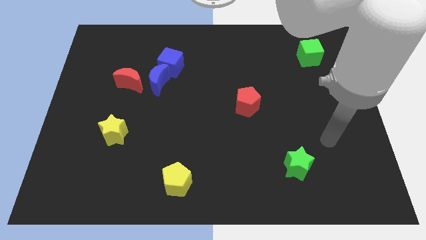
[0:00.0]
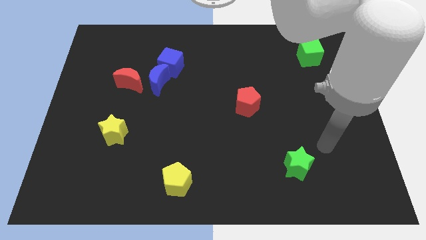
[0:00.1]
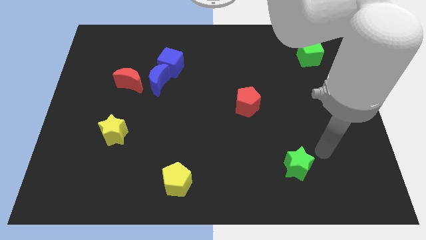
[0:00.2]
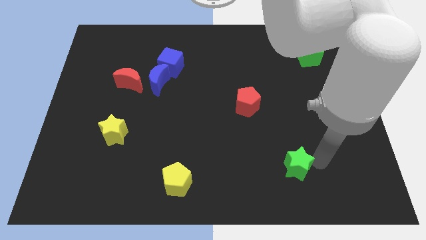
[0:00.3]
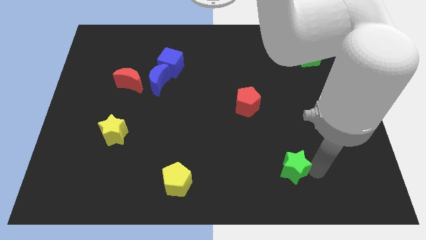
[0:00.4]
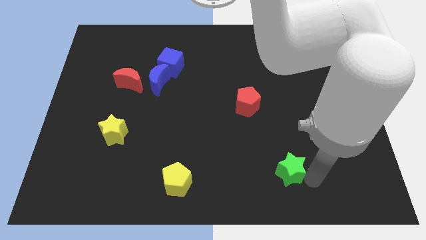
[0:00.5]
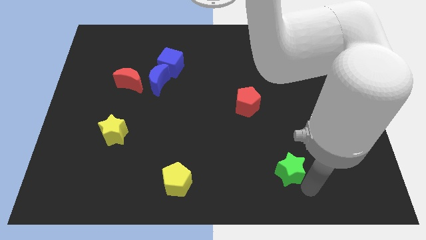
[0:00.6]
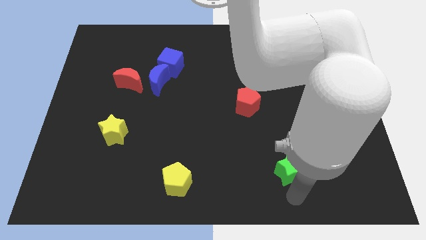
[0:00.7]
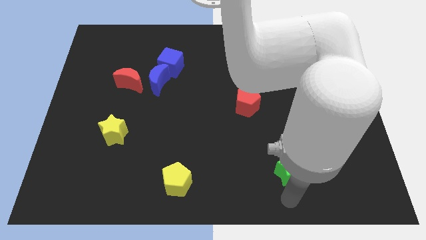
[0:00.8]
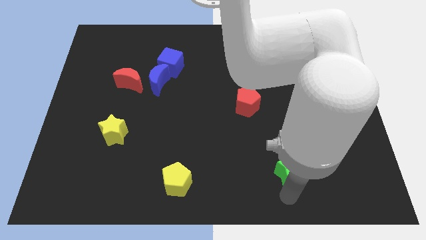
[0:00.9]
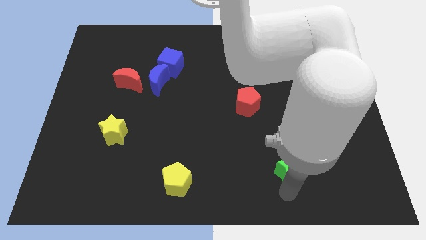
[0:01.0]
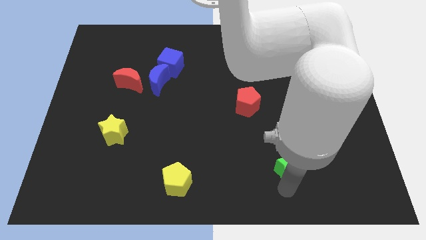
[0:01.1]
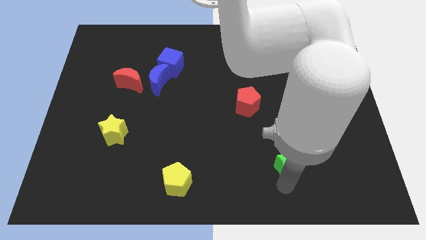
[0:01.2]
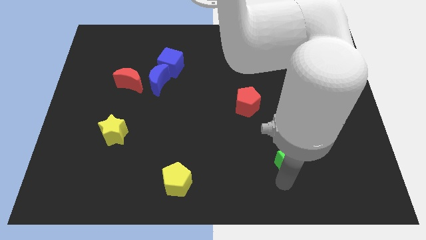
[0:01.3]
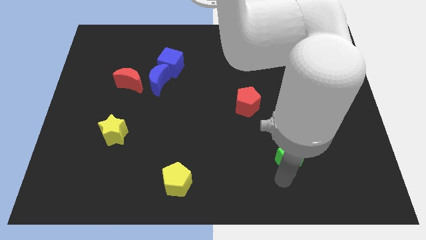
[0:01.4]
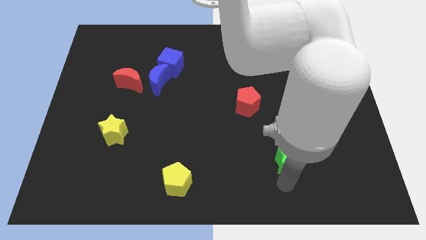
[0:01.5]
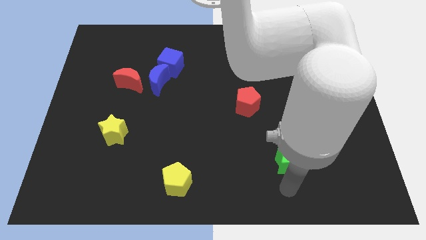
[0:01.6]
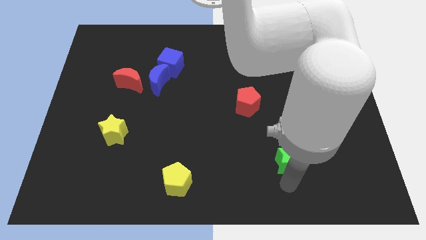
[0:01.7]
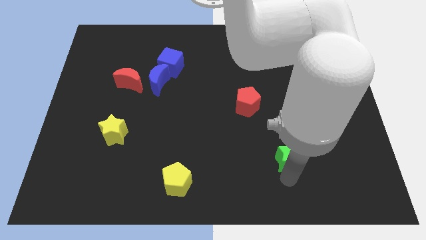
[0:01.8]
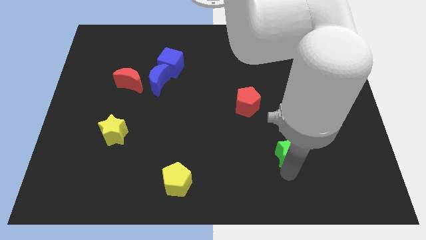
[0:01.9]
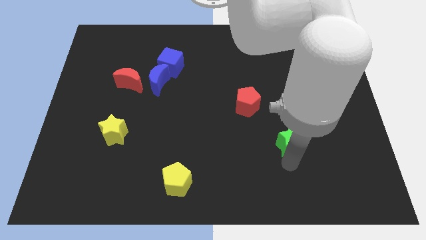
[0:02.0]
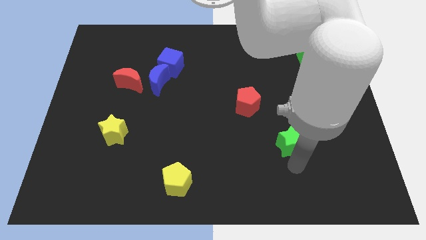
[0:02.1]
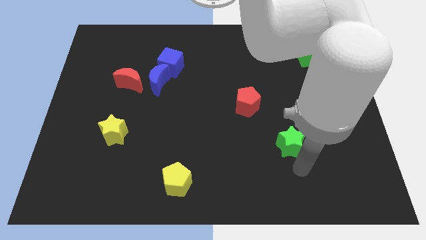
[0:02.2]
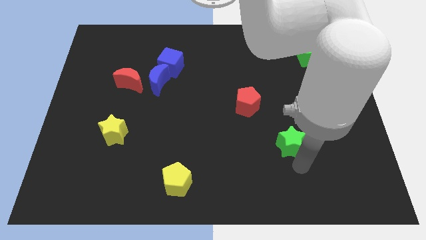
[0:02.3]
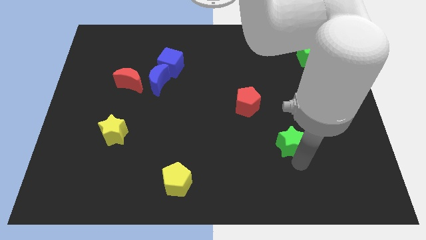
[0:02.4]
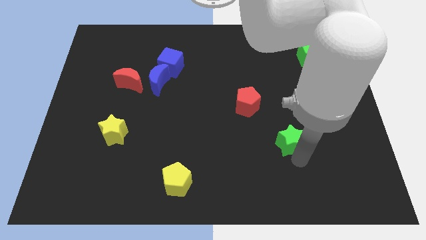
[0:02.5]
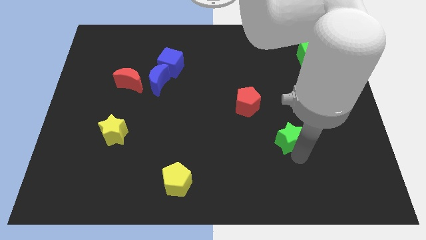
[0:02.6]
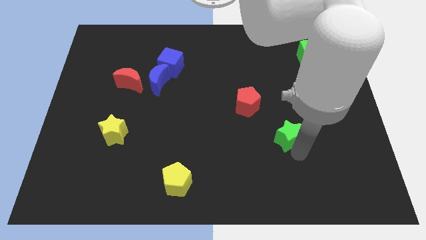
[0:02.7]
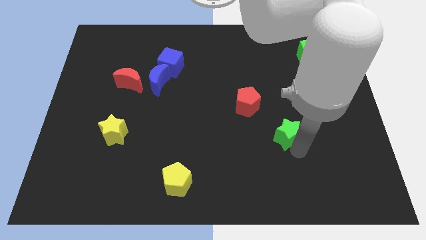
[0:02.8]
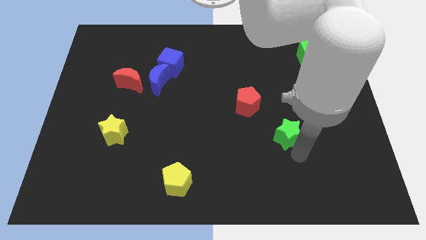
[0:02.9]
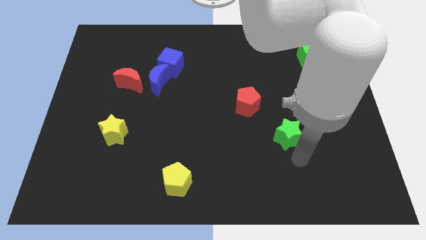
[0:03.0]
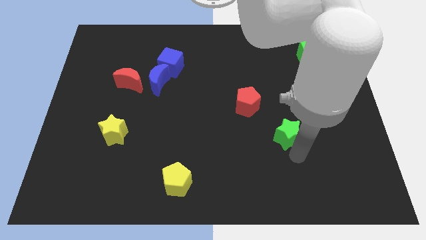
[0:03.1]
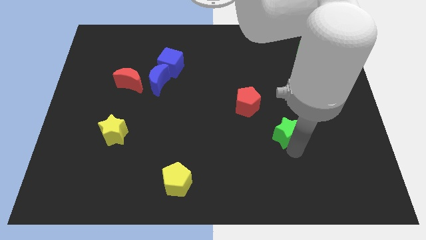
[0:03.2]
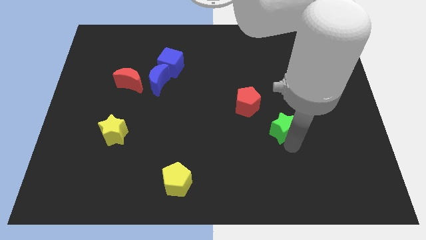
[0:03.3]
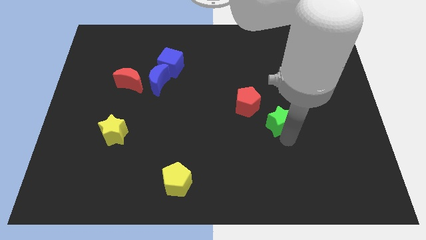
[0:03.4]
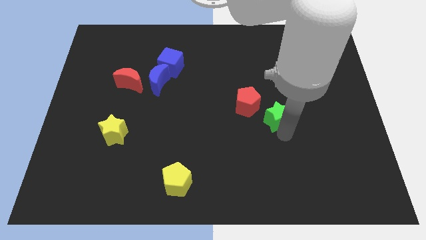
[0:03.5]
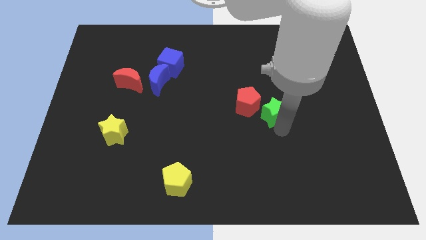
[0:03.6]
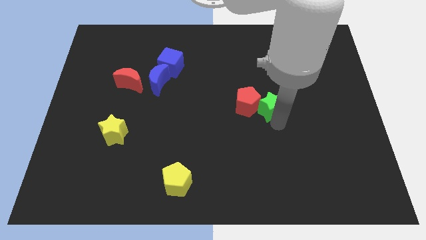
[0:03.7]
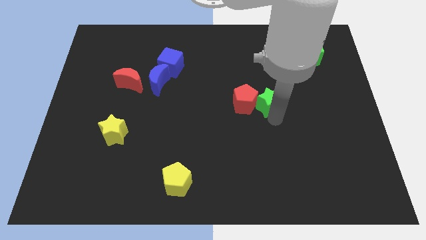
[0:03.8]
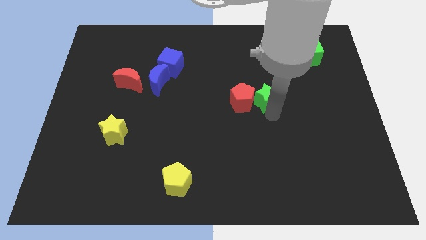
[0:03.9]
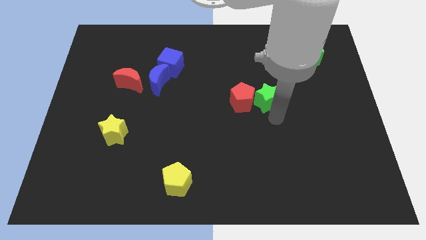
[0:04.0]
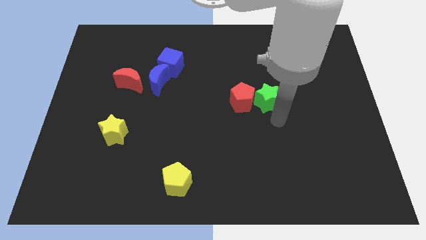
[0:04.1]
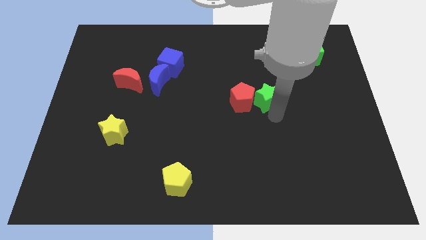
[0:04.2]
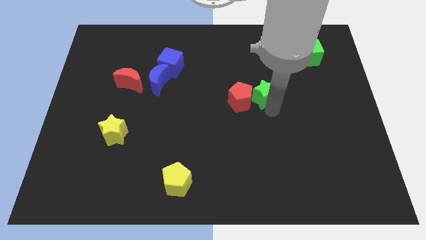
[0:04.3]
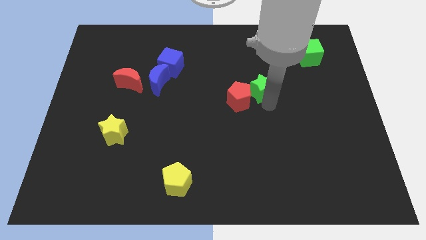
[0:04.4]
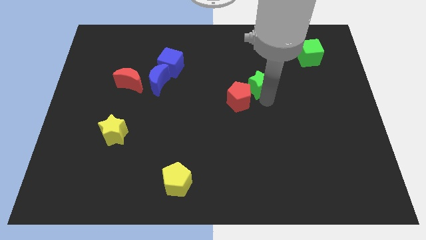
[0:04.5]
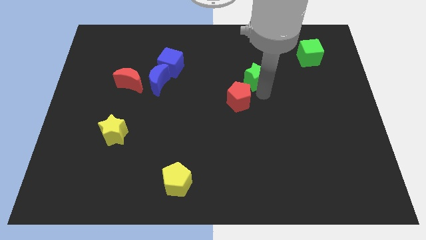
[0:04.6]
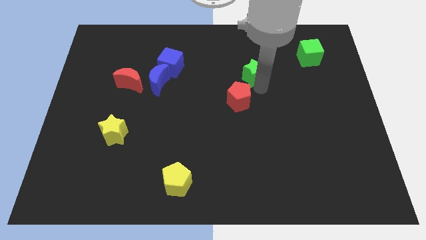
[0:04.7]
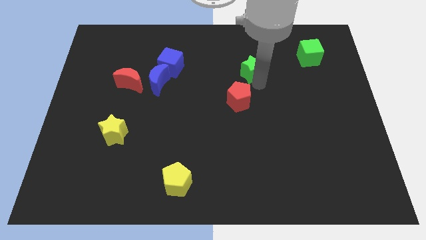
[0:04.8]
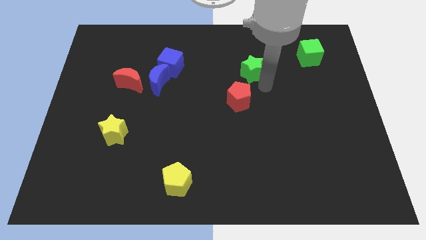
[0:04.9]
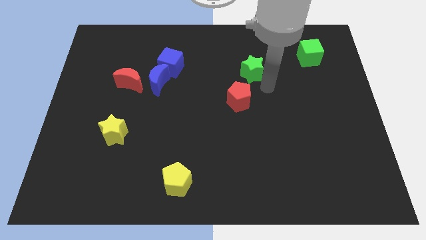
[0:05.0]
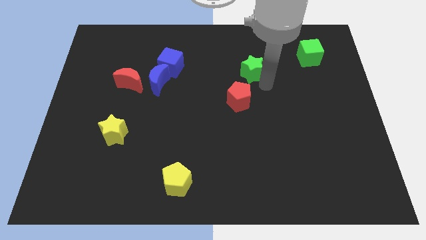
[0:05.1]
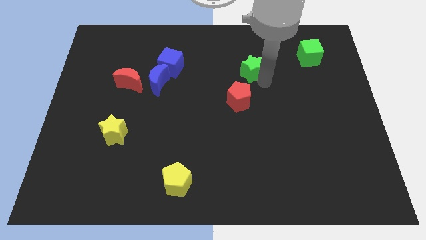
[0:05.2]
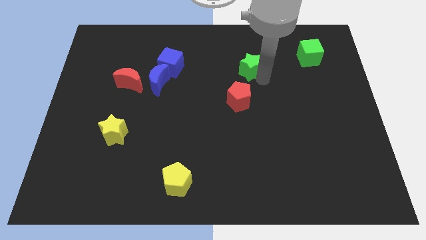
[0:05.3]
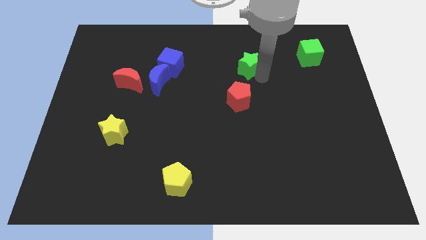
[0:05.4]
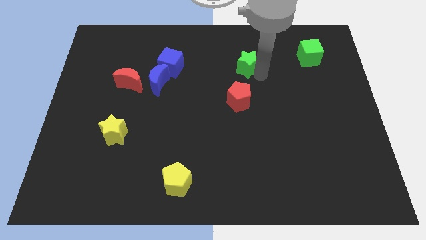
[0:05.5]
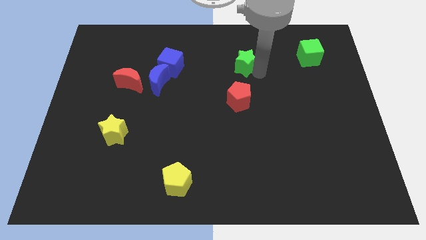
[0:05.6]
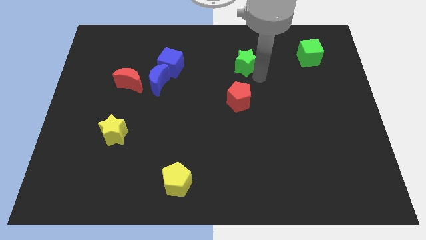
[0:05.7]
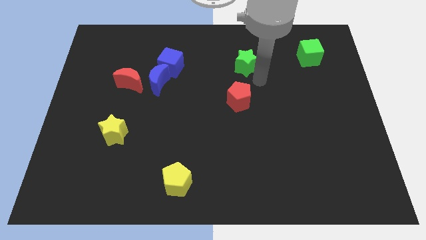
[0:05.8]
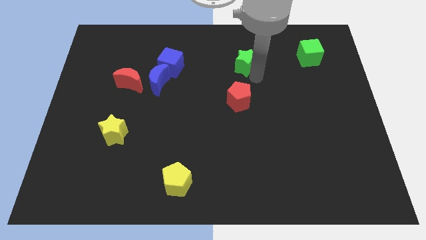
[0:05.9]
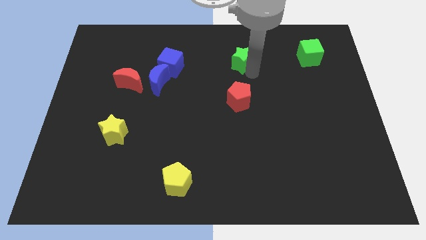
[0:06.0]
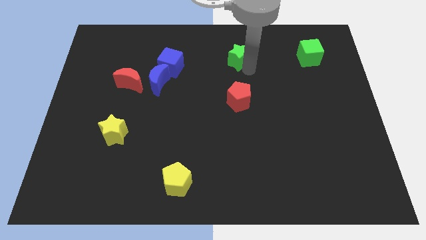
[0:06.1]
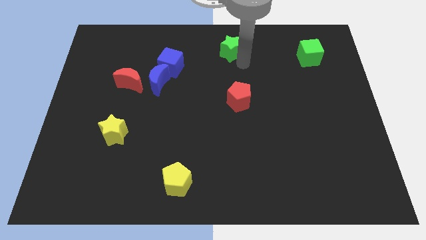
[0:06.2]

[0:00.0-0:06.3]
move the green star to the top side

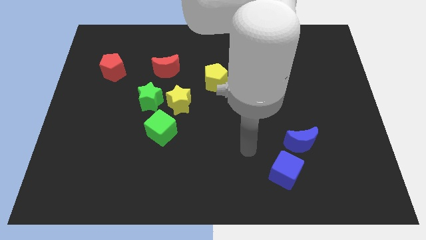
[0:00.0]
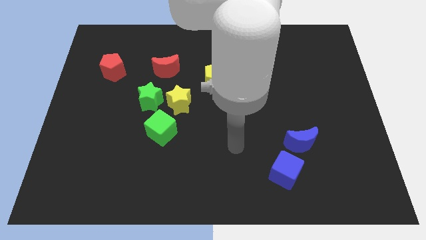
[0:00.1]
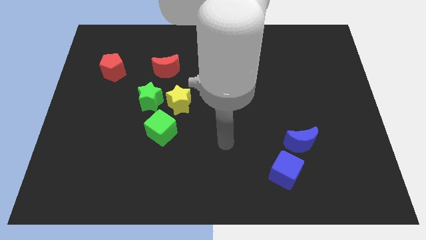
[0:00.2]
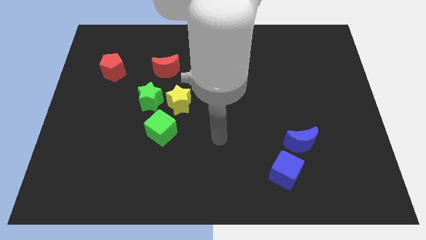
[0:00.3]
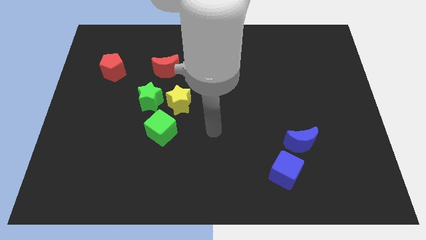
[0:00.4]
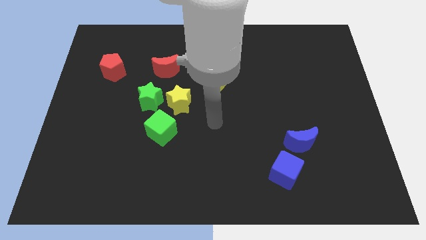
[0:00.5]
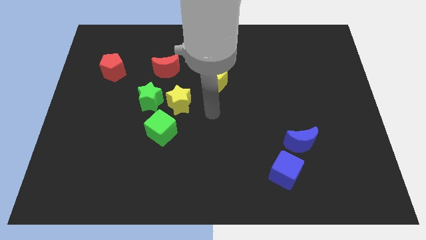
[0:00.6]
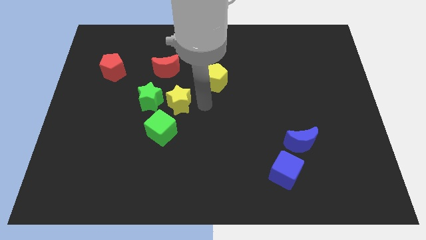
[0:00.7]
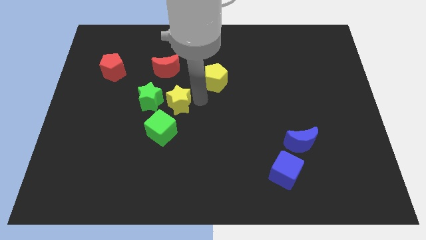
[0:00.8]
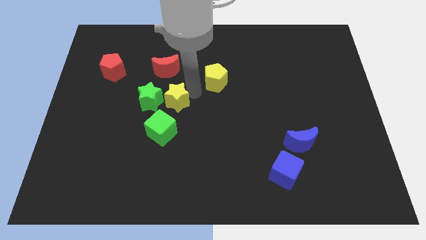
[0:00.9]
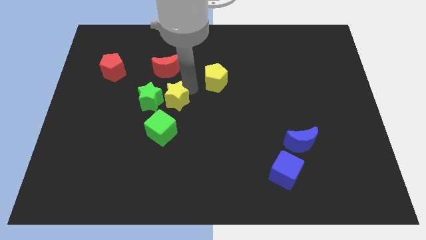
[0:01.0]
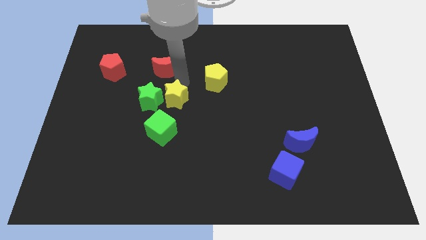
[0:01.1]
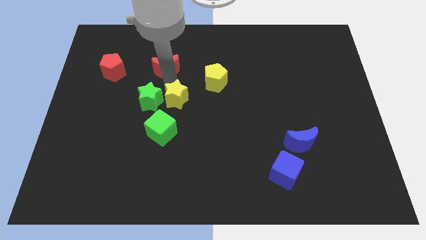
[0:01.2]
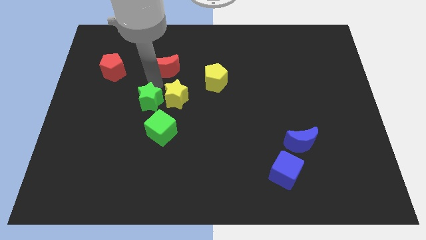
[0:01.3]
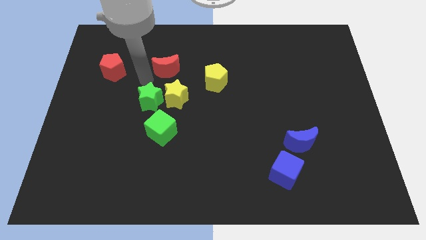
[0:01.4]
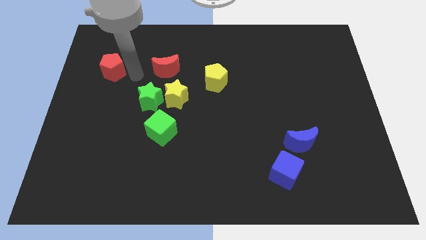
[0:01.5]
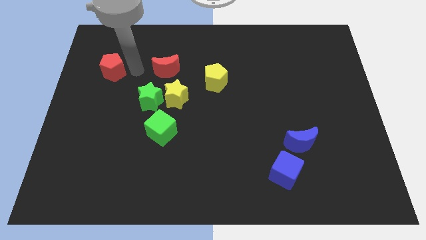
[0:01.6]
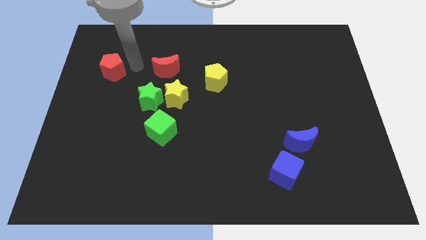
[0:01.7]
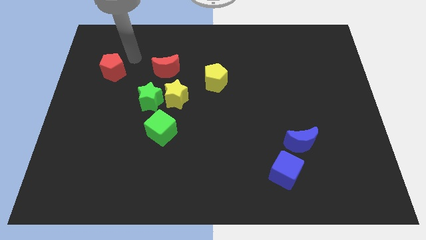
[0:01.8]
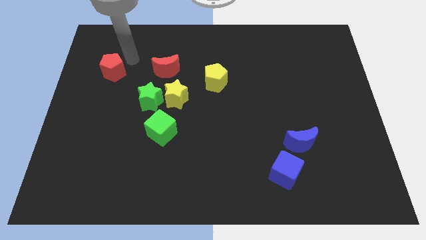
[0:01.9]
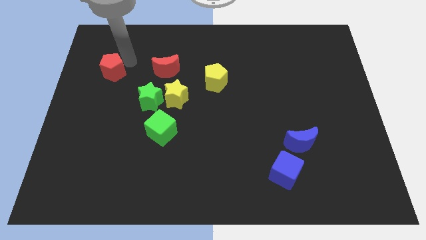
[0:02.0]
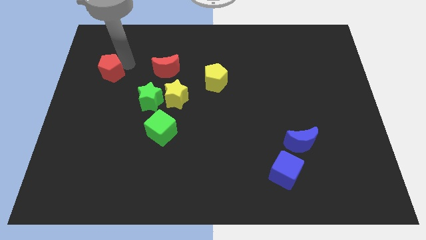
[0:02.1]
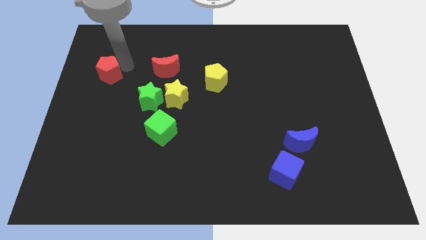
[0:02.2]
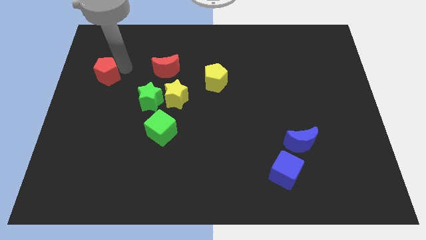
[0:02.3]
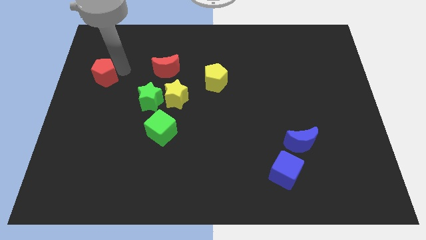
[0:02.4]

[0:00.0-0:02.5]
slide the red pentagon to the center left
